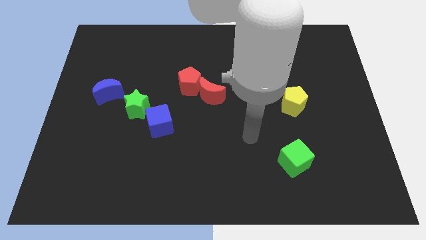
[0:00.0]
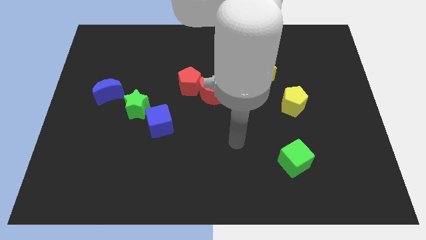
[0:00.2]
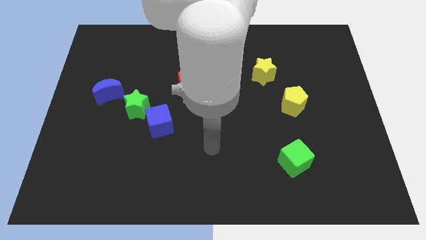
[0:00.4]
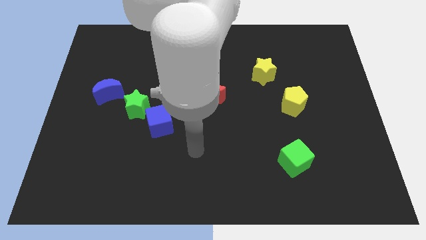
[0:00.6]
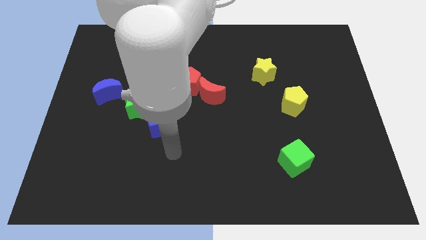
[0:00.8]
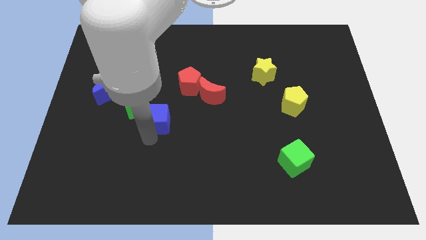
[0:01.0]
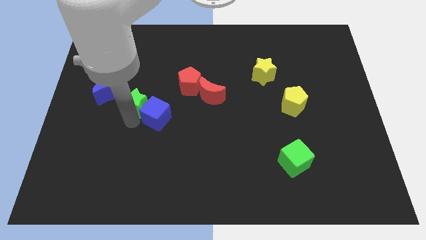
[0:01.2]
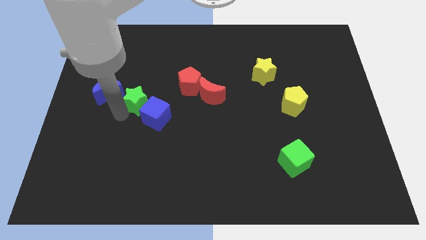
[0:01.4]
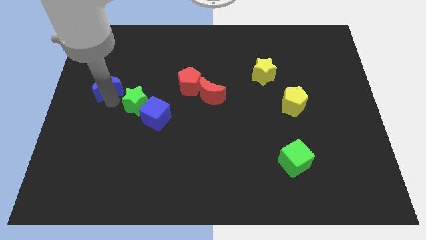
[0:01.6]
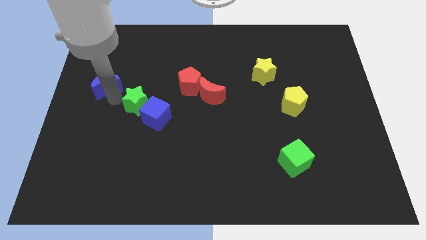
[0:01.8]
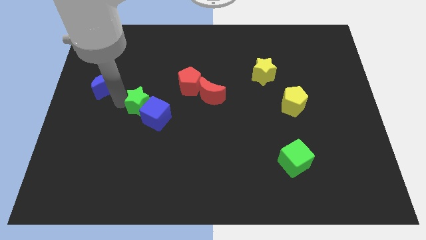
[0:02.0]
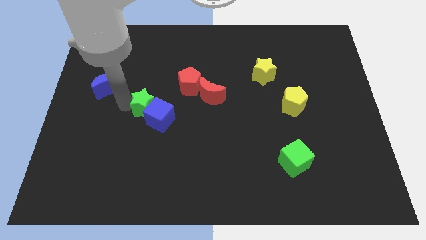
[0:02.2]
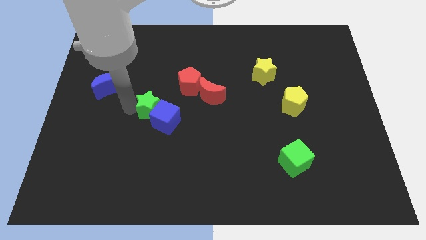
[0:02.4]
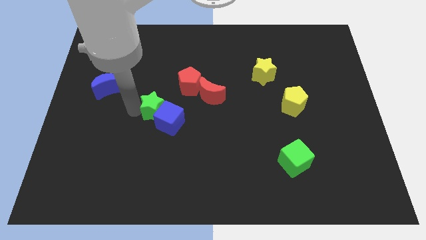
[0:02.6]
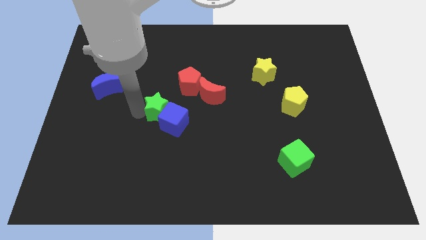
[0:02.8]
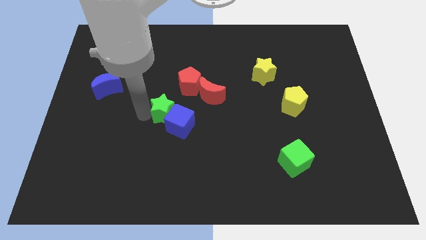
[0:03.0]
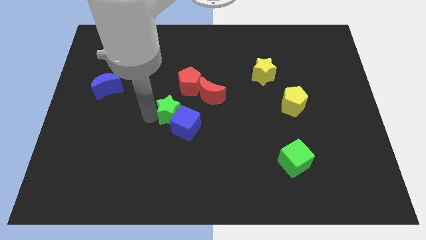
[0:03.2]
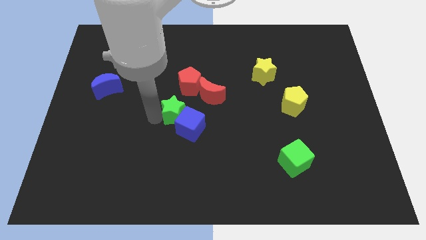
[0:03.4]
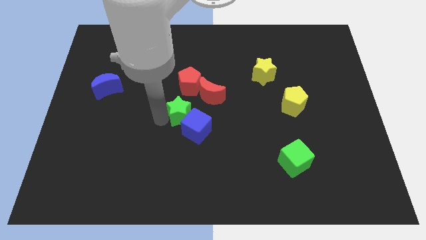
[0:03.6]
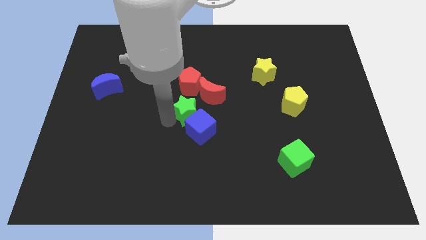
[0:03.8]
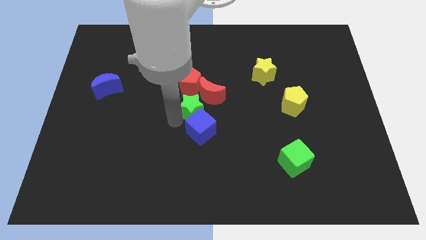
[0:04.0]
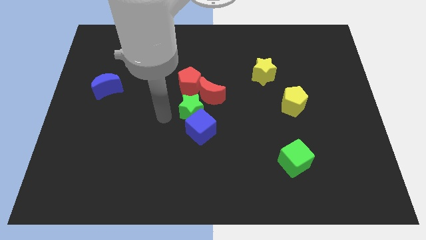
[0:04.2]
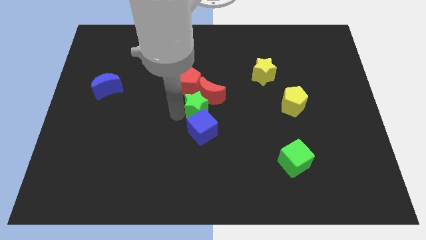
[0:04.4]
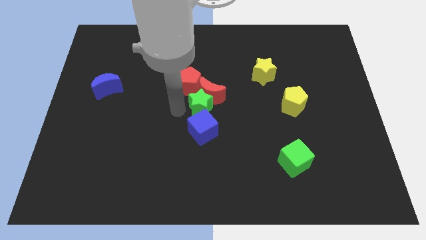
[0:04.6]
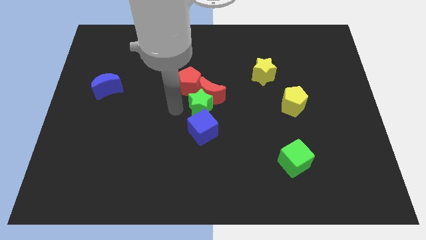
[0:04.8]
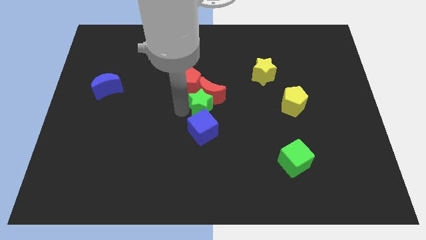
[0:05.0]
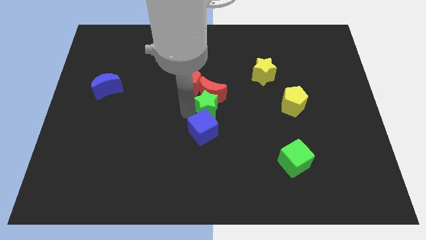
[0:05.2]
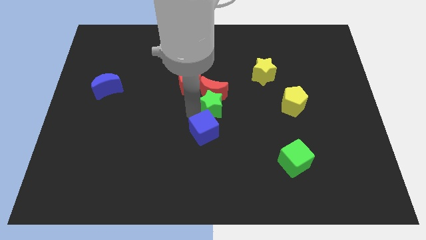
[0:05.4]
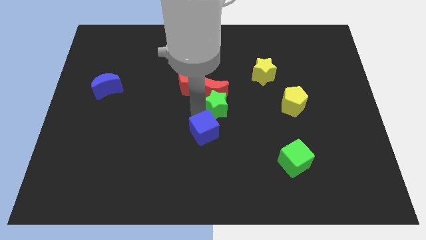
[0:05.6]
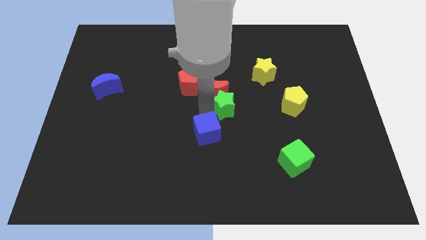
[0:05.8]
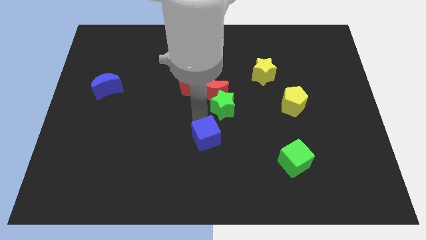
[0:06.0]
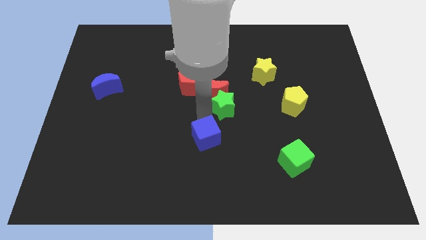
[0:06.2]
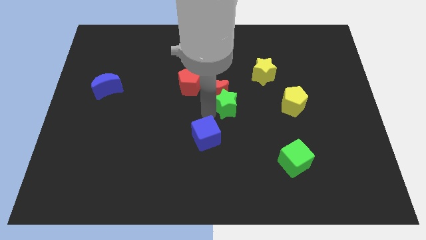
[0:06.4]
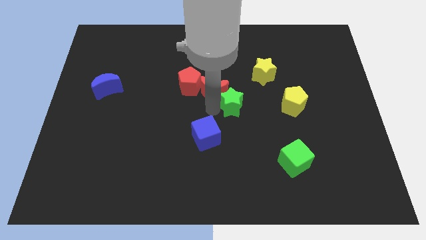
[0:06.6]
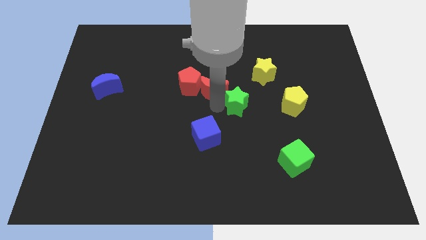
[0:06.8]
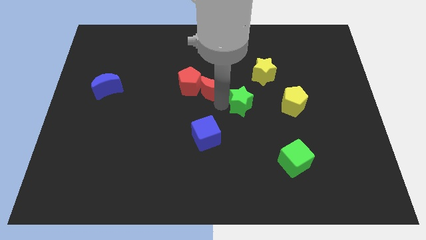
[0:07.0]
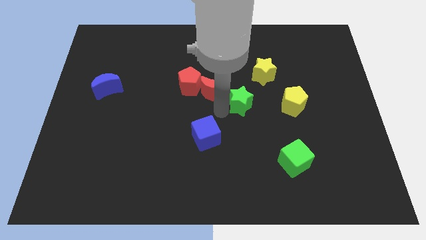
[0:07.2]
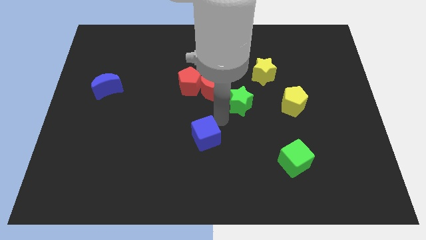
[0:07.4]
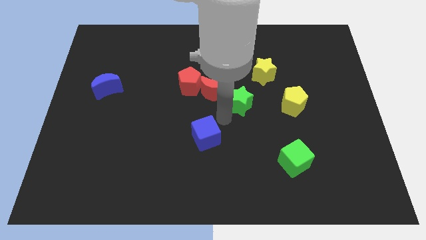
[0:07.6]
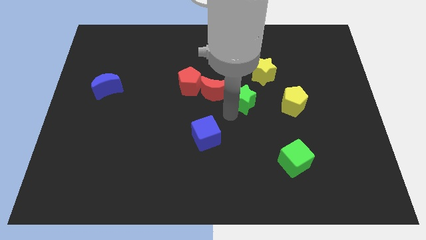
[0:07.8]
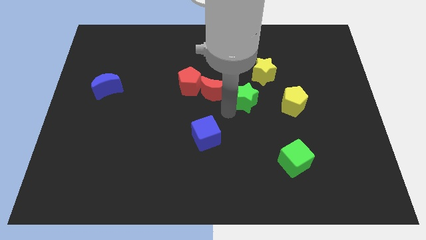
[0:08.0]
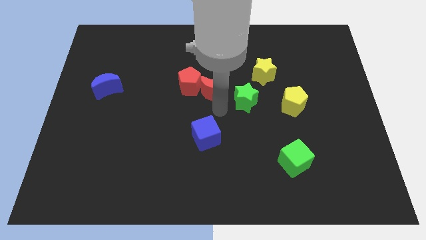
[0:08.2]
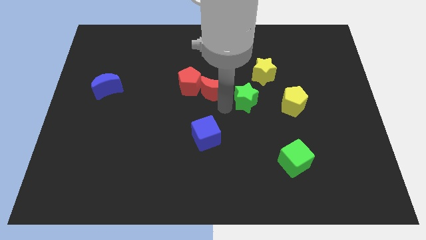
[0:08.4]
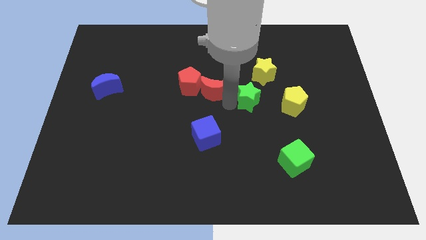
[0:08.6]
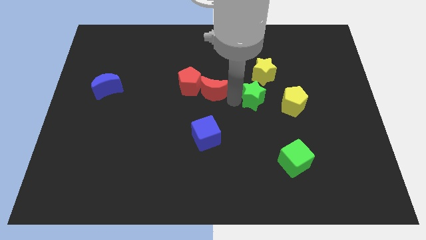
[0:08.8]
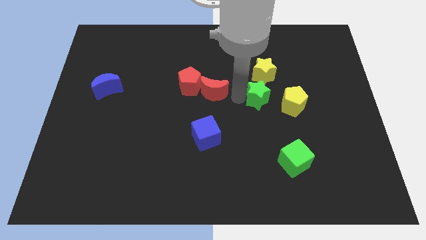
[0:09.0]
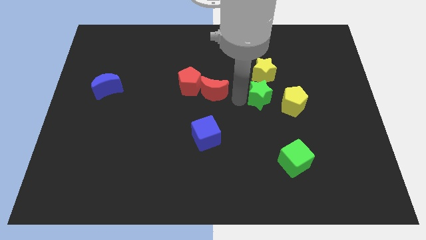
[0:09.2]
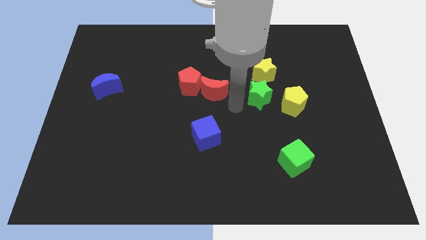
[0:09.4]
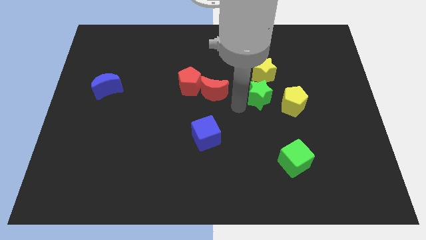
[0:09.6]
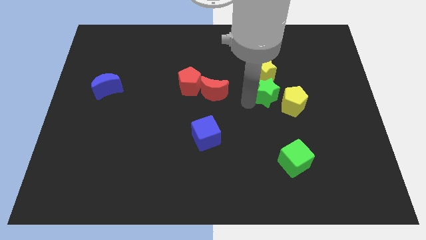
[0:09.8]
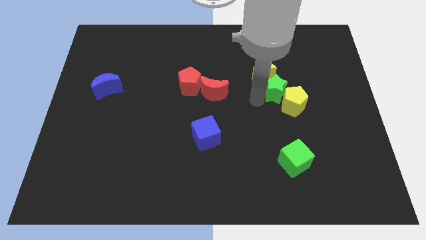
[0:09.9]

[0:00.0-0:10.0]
push the green star to the top side of the yellow pentagon

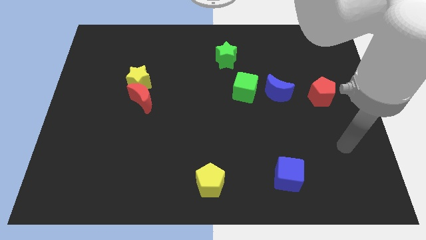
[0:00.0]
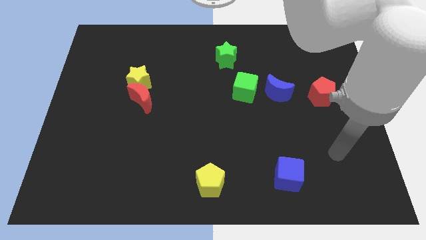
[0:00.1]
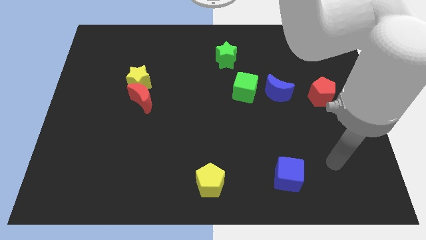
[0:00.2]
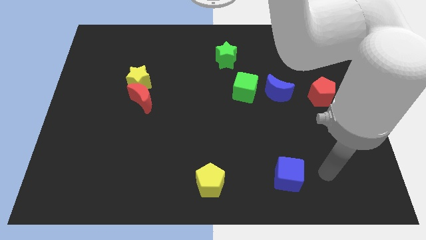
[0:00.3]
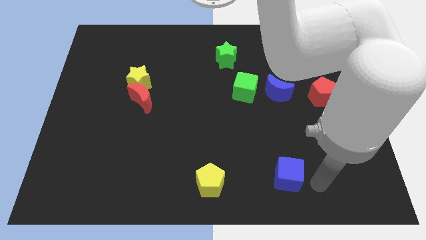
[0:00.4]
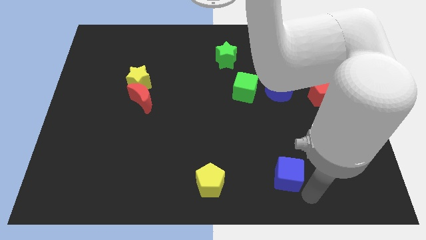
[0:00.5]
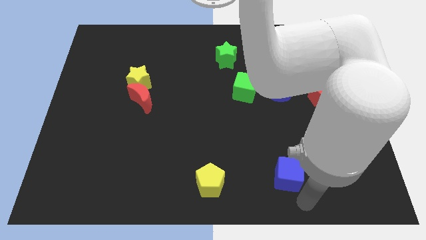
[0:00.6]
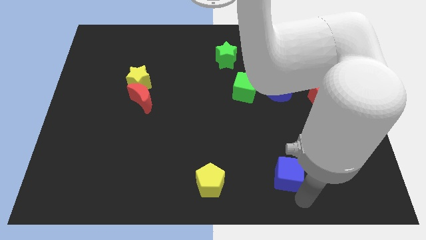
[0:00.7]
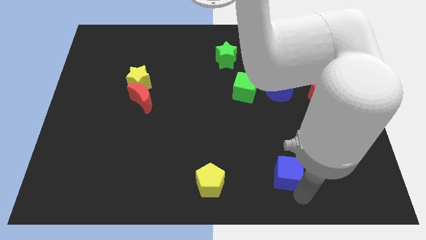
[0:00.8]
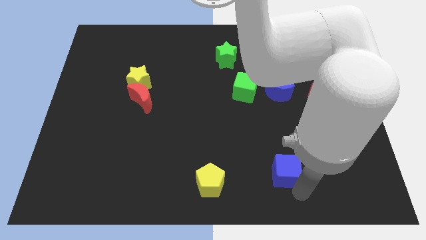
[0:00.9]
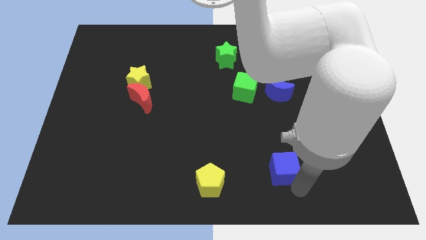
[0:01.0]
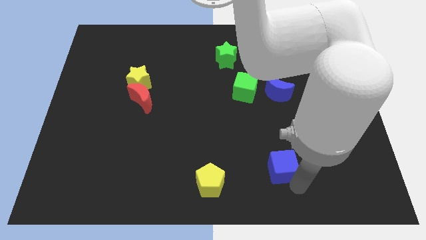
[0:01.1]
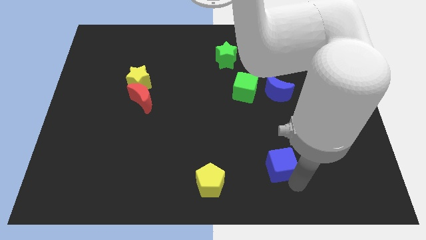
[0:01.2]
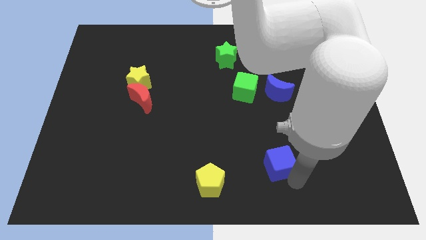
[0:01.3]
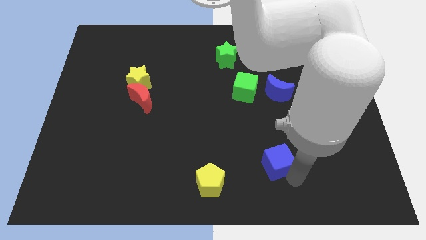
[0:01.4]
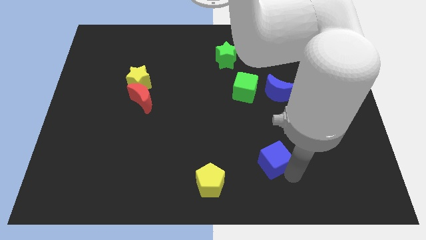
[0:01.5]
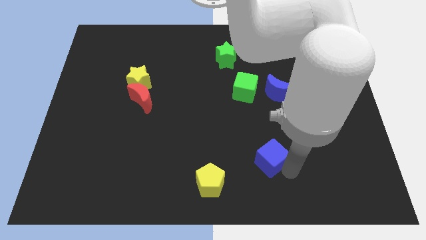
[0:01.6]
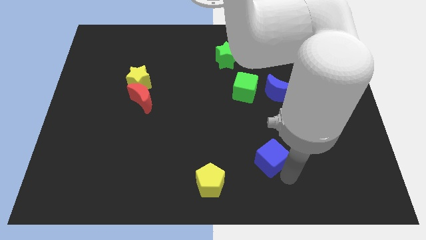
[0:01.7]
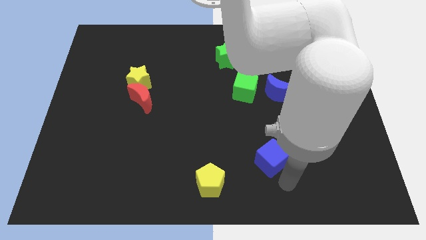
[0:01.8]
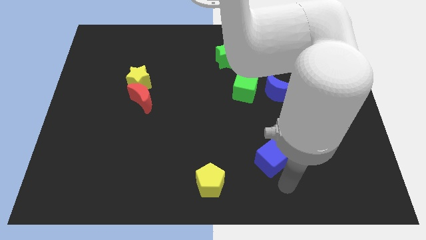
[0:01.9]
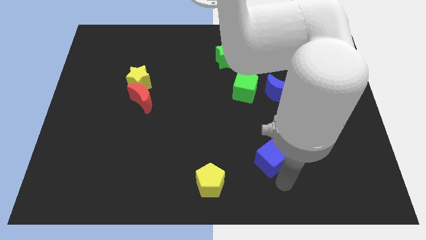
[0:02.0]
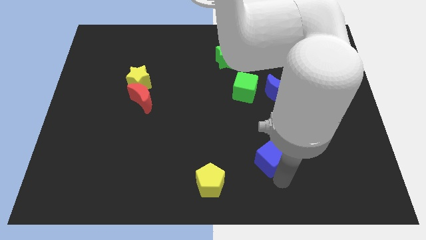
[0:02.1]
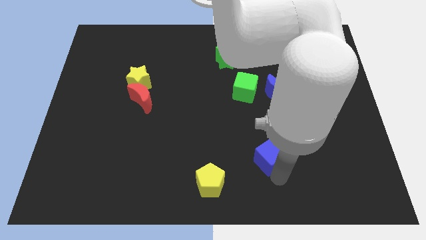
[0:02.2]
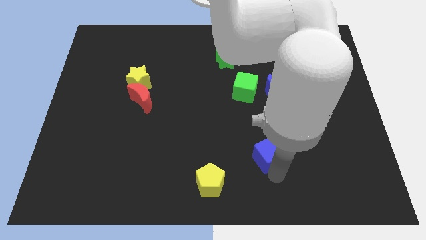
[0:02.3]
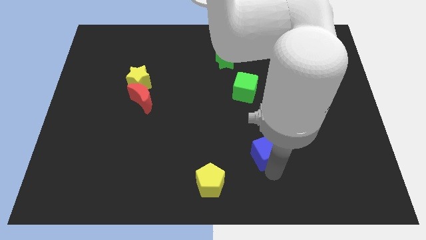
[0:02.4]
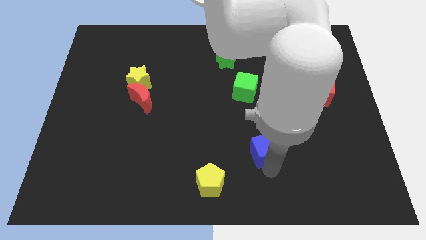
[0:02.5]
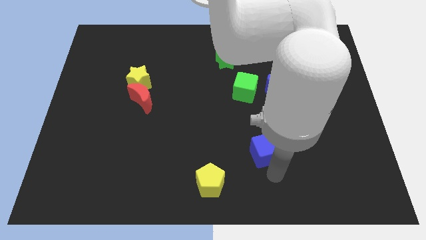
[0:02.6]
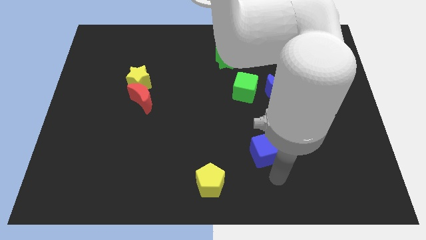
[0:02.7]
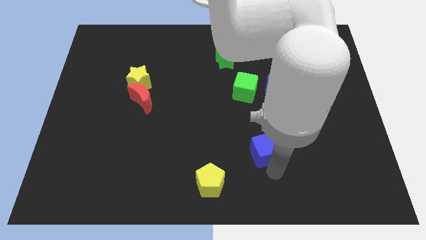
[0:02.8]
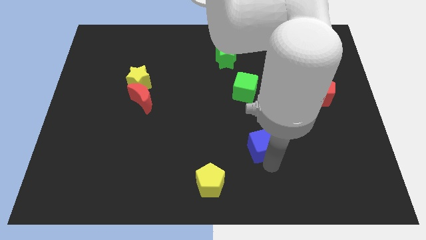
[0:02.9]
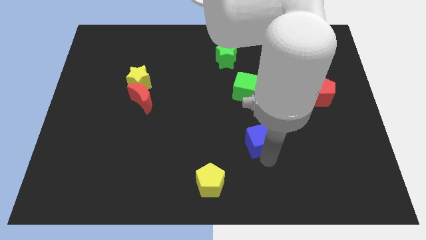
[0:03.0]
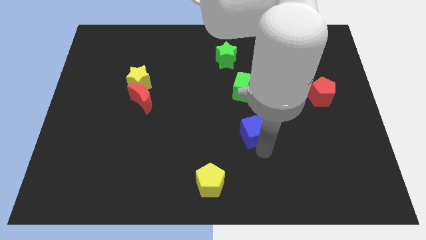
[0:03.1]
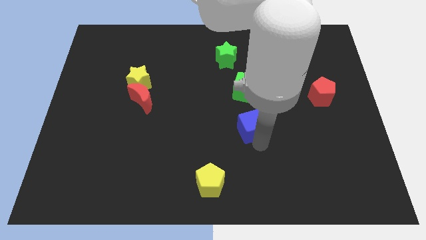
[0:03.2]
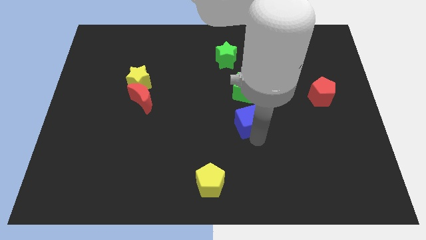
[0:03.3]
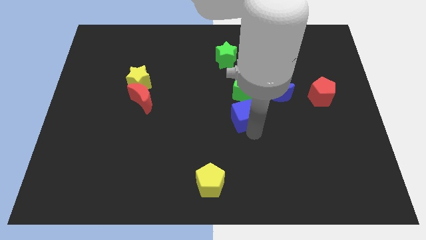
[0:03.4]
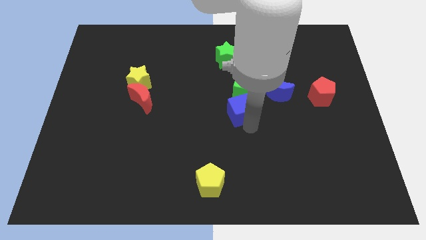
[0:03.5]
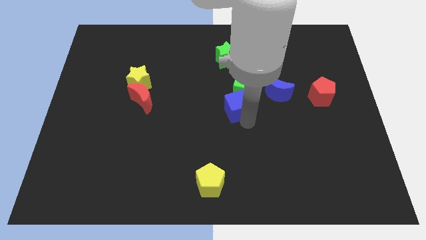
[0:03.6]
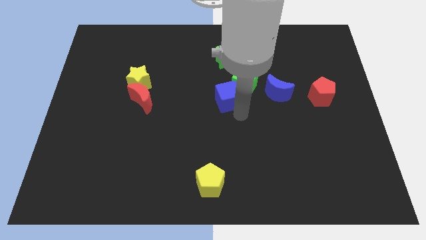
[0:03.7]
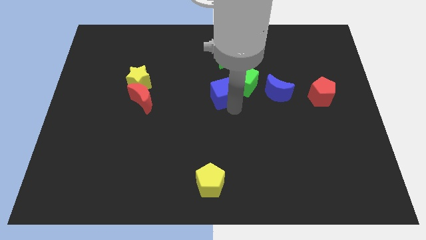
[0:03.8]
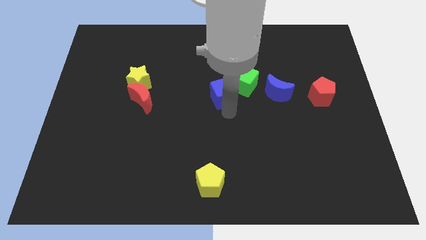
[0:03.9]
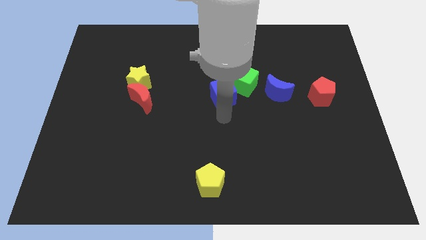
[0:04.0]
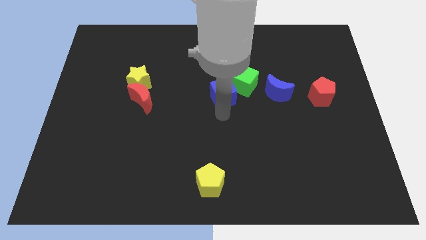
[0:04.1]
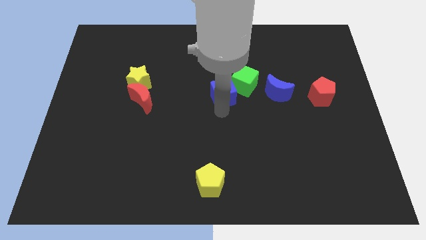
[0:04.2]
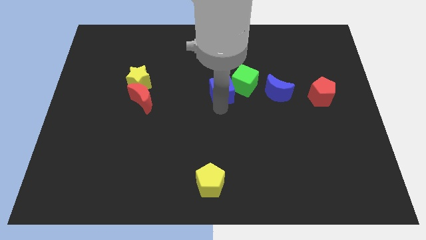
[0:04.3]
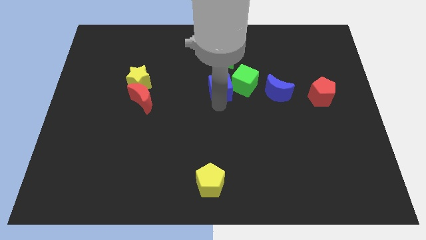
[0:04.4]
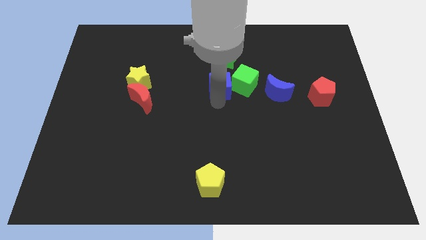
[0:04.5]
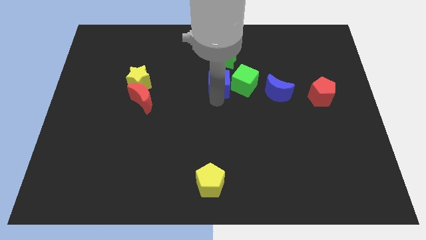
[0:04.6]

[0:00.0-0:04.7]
put the blue cube diagonally up and to the left of the green cube
